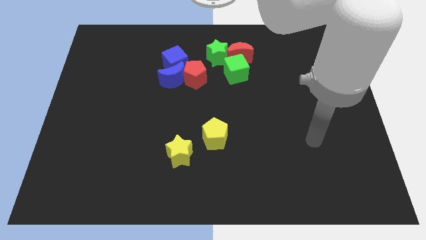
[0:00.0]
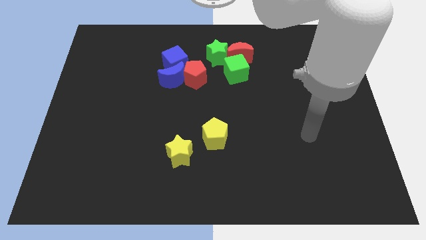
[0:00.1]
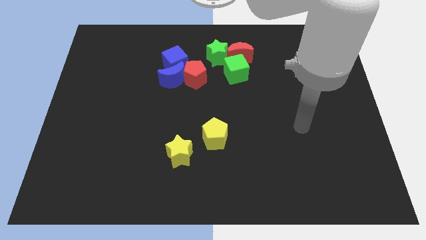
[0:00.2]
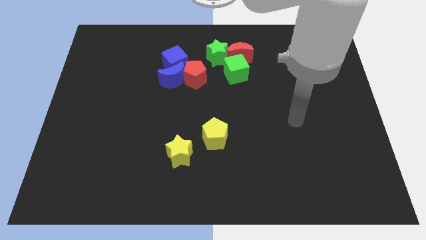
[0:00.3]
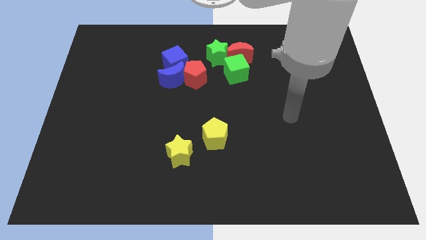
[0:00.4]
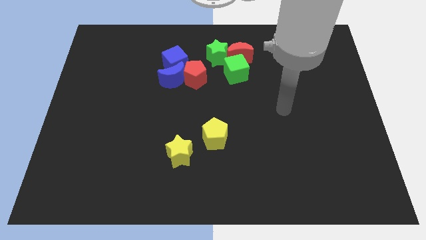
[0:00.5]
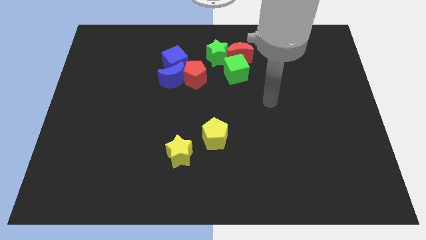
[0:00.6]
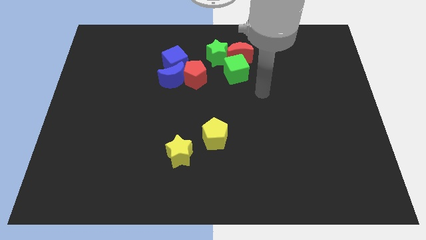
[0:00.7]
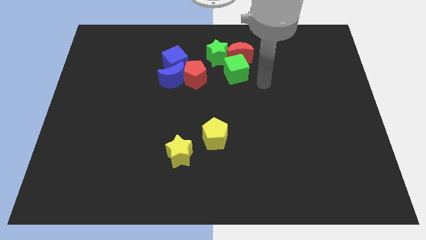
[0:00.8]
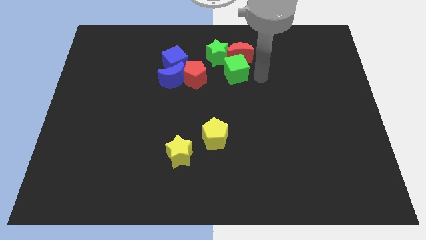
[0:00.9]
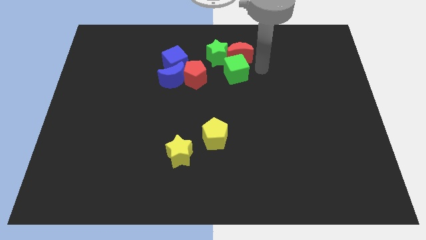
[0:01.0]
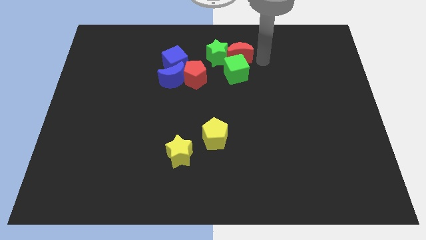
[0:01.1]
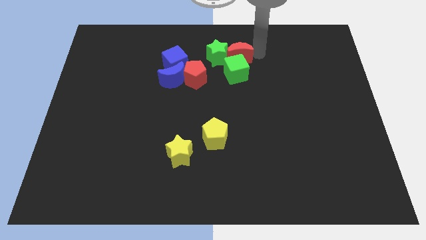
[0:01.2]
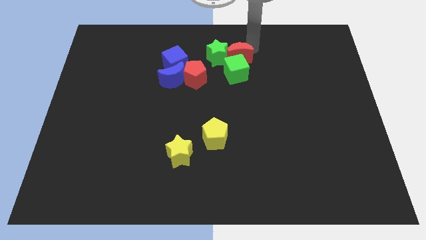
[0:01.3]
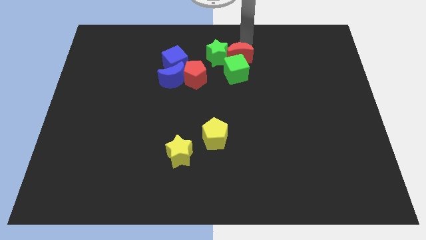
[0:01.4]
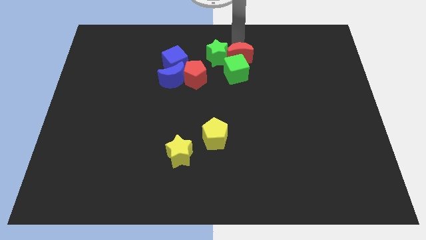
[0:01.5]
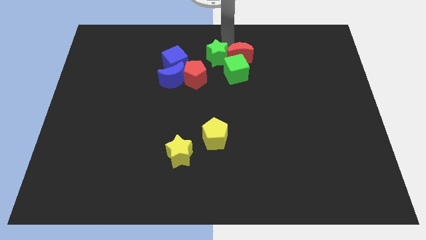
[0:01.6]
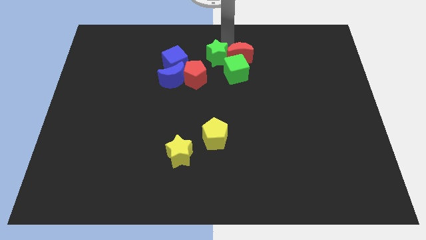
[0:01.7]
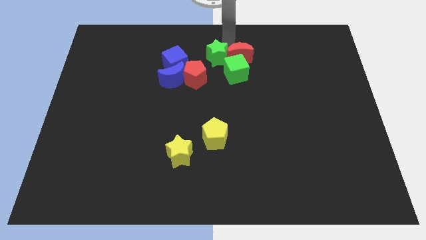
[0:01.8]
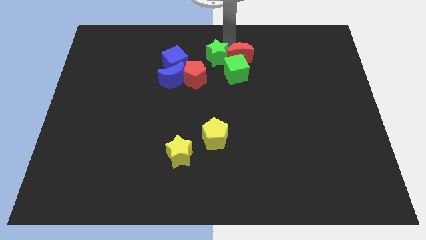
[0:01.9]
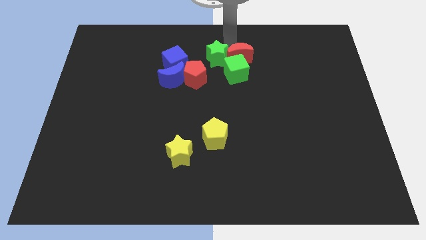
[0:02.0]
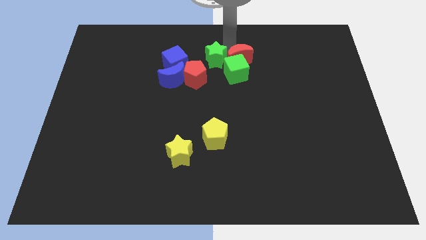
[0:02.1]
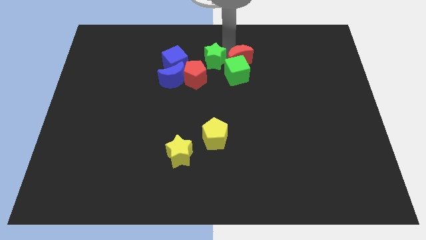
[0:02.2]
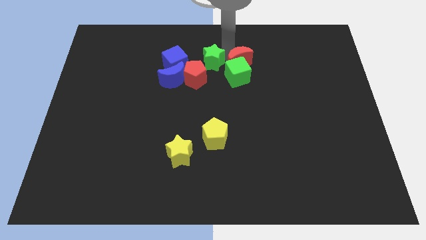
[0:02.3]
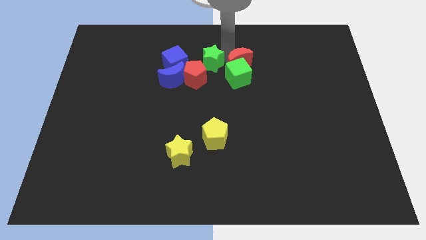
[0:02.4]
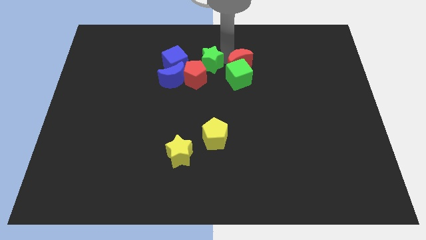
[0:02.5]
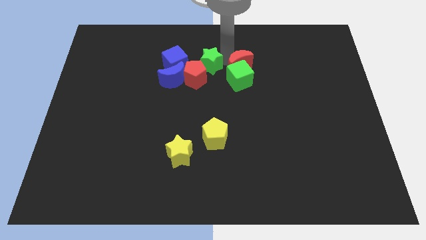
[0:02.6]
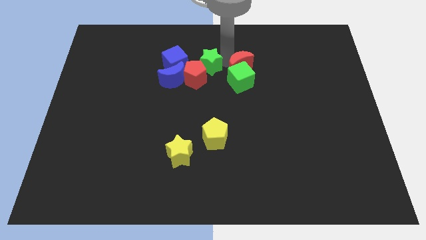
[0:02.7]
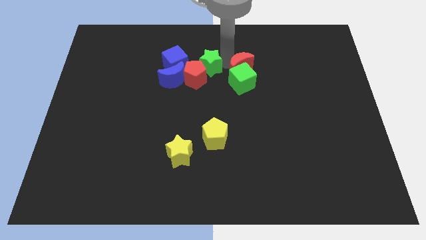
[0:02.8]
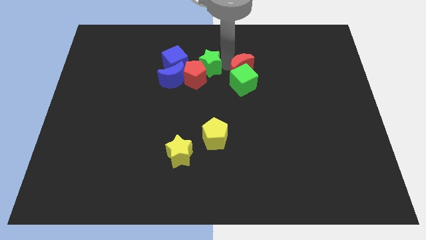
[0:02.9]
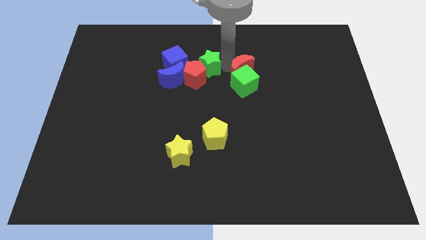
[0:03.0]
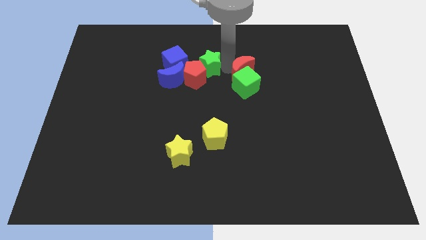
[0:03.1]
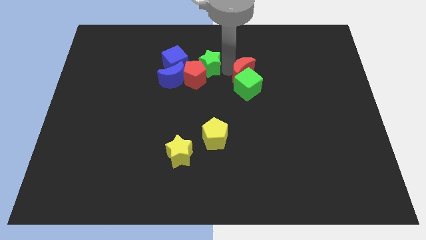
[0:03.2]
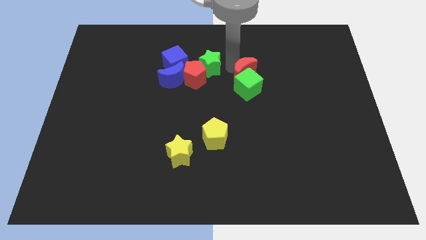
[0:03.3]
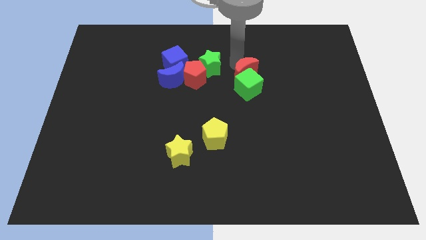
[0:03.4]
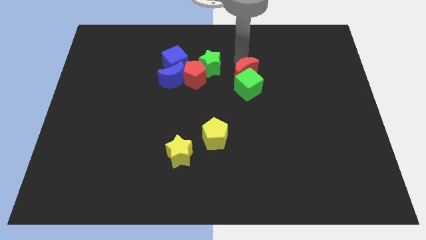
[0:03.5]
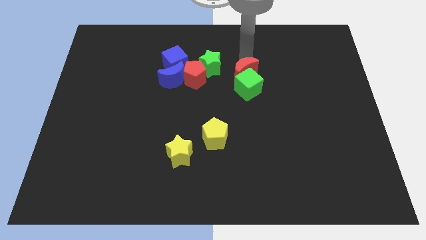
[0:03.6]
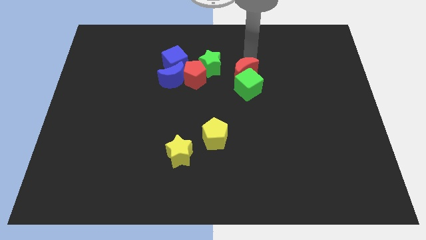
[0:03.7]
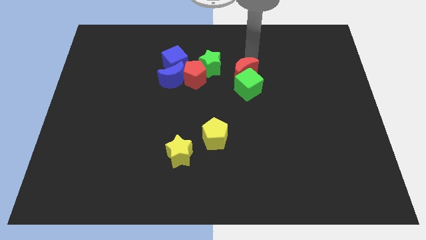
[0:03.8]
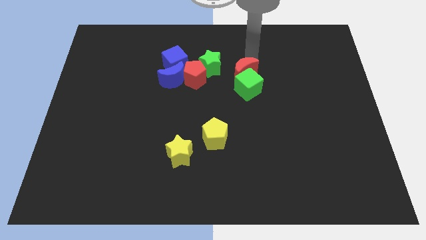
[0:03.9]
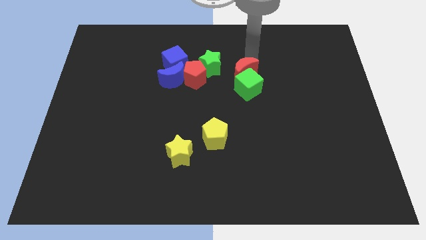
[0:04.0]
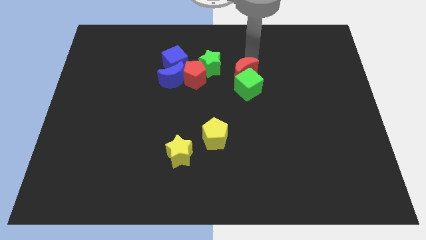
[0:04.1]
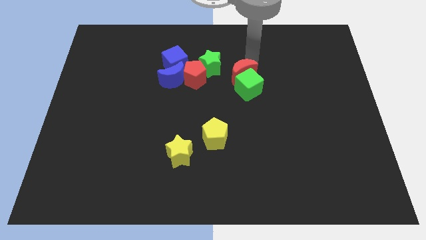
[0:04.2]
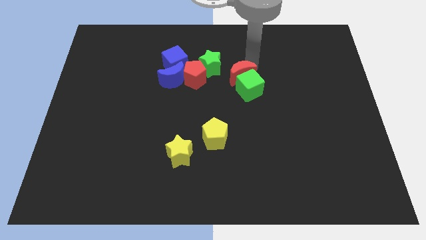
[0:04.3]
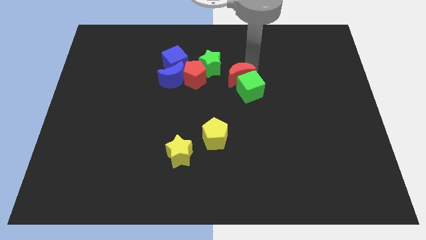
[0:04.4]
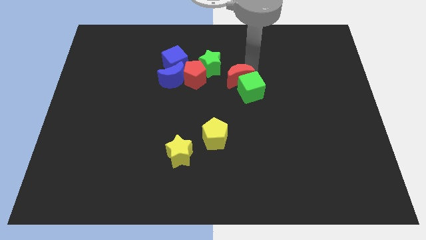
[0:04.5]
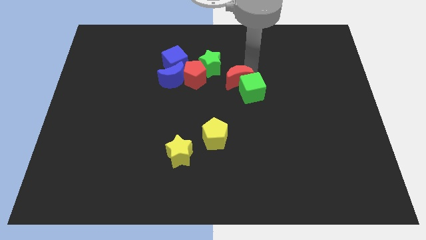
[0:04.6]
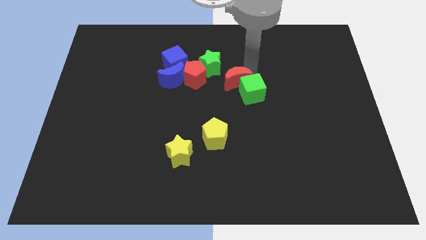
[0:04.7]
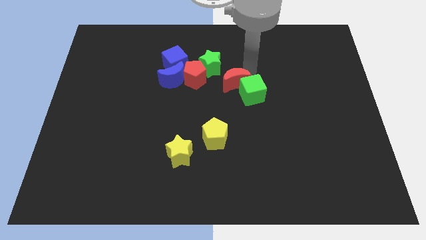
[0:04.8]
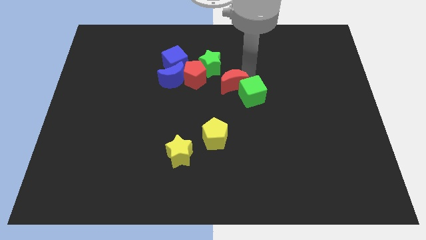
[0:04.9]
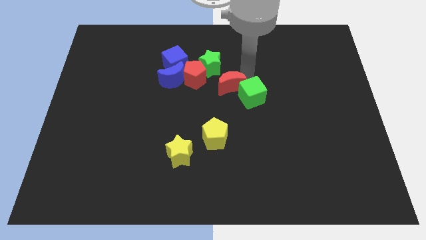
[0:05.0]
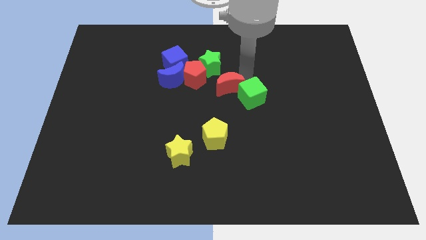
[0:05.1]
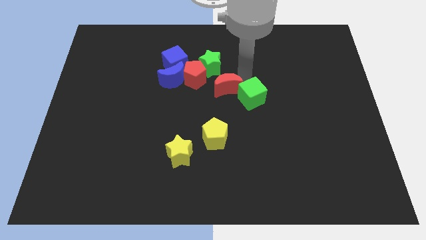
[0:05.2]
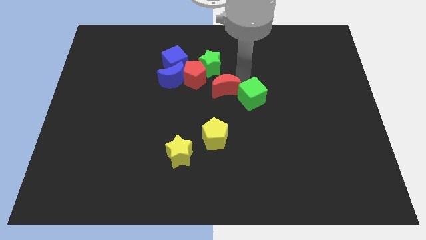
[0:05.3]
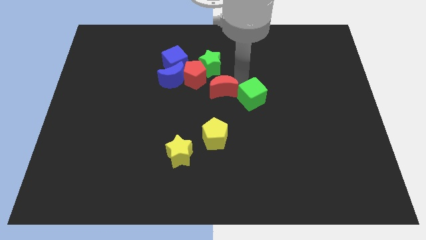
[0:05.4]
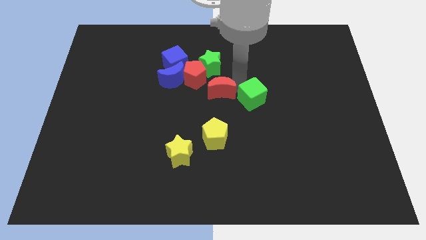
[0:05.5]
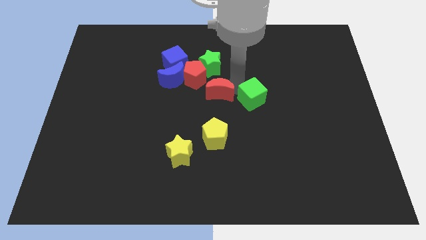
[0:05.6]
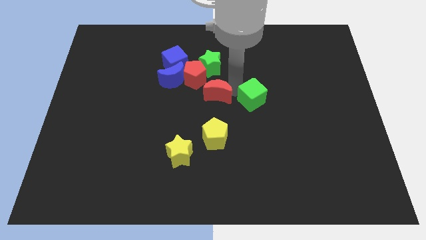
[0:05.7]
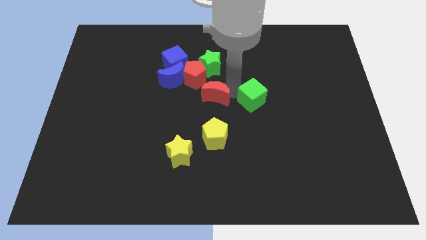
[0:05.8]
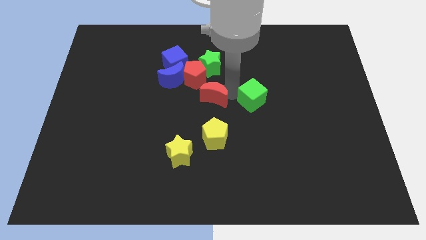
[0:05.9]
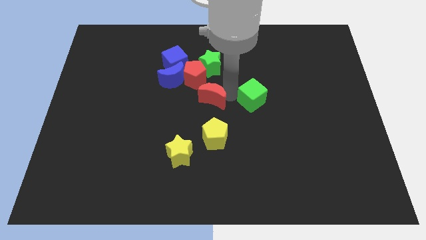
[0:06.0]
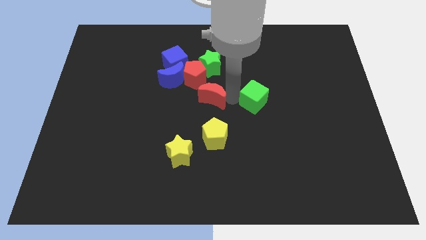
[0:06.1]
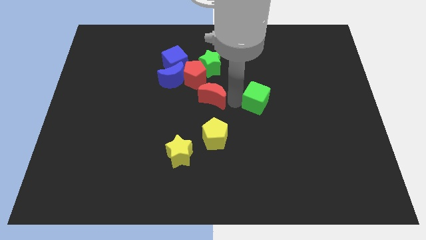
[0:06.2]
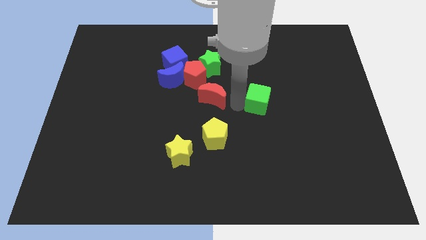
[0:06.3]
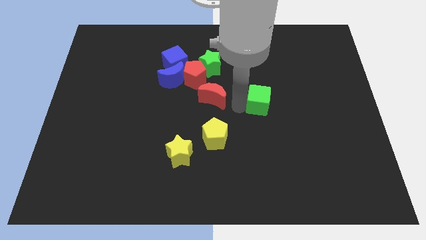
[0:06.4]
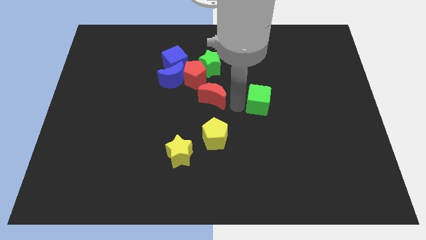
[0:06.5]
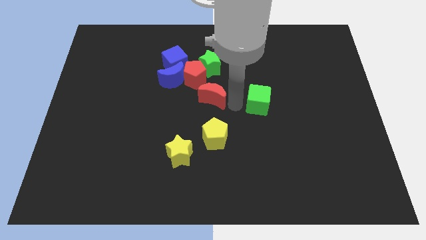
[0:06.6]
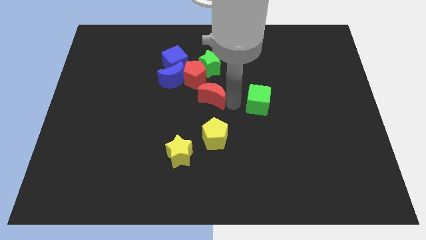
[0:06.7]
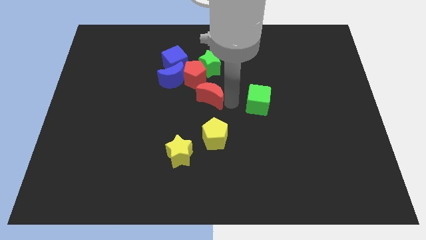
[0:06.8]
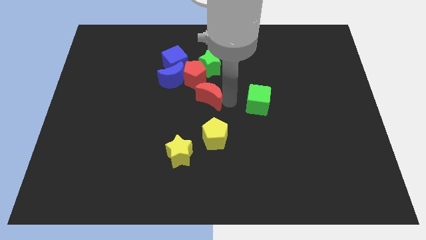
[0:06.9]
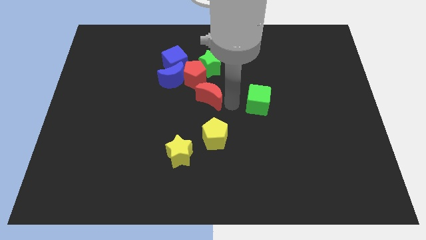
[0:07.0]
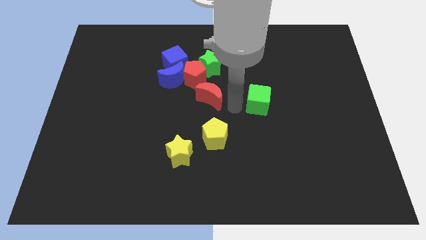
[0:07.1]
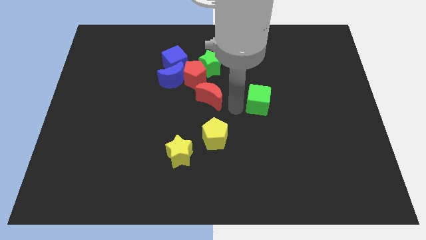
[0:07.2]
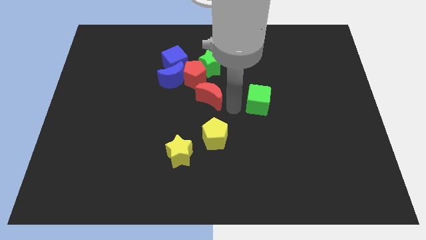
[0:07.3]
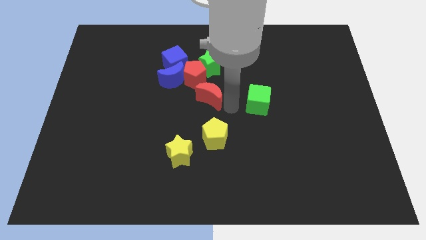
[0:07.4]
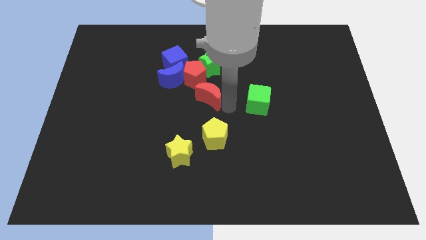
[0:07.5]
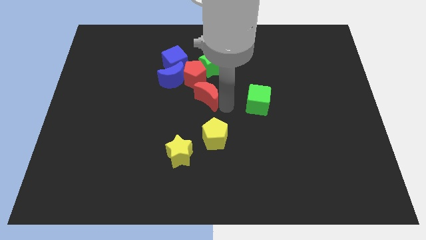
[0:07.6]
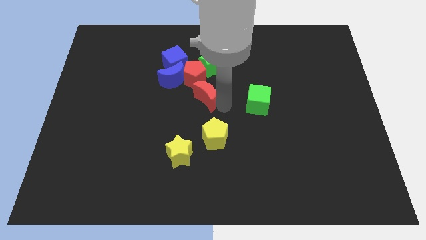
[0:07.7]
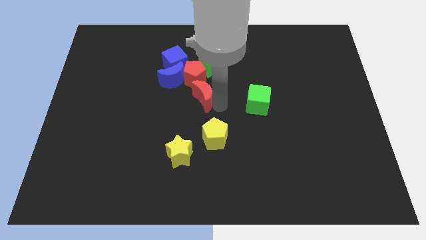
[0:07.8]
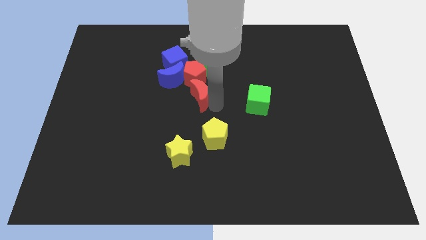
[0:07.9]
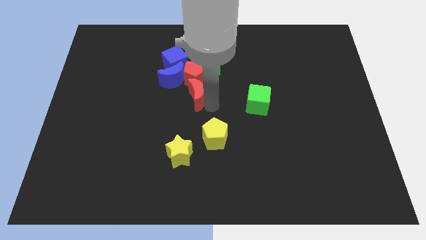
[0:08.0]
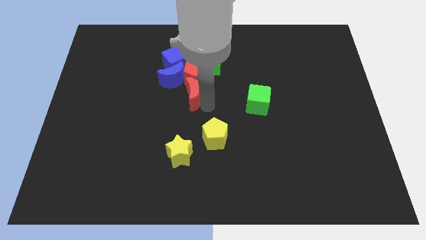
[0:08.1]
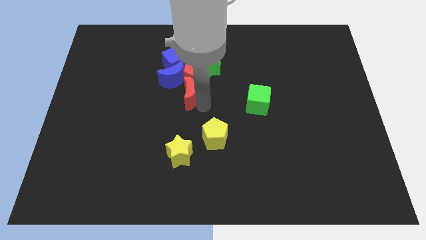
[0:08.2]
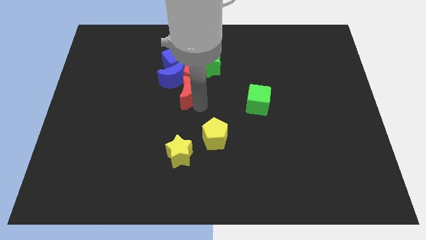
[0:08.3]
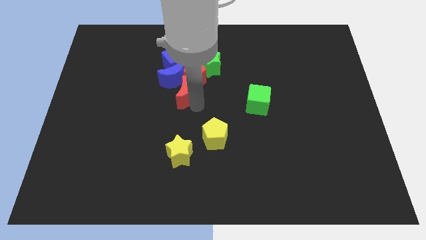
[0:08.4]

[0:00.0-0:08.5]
put the red moon to the blue moon
